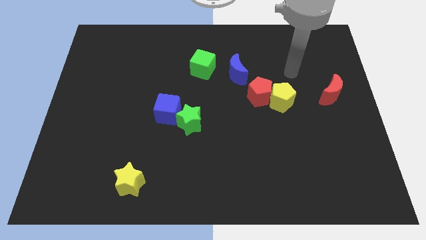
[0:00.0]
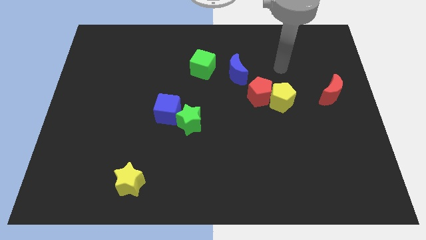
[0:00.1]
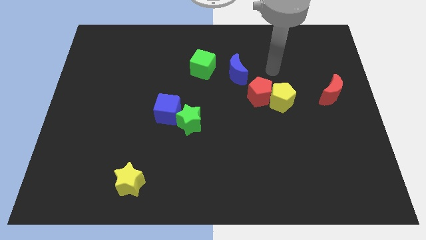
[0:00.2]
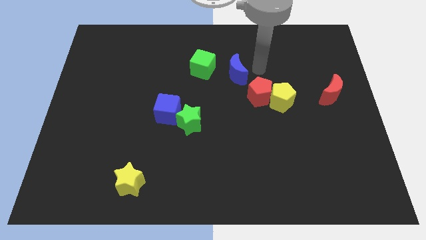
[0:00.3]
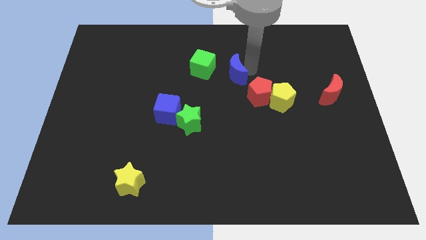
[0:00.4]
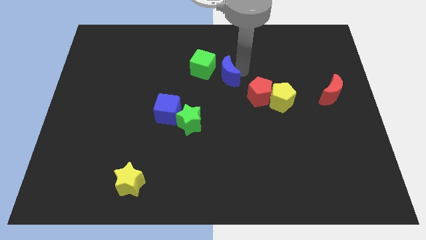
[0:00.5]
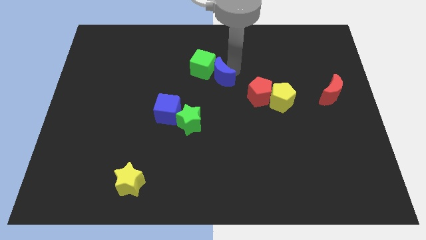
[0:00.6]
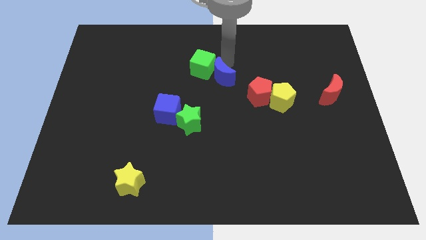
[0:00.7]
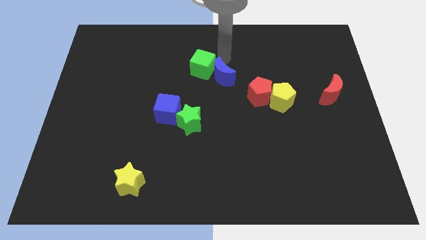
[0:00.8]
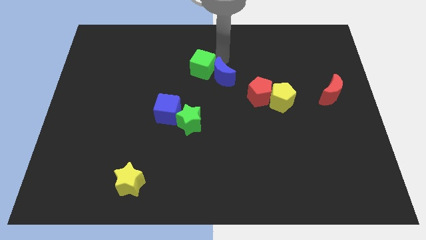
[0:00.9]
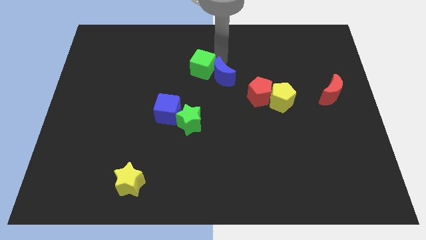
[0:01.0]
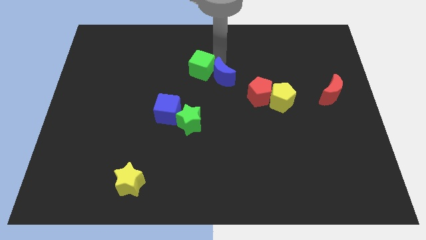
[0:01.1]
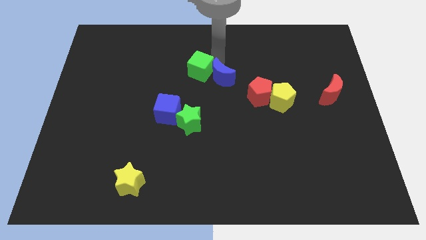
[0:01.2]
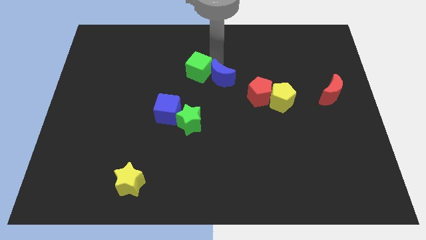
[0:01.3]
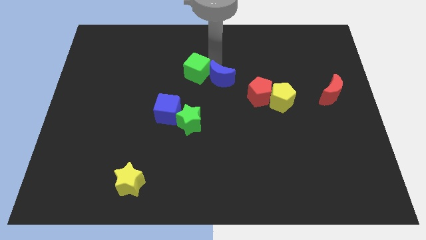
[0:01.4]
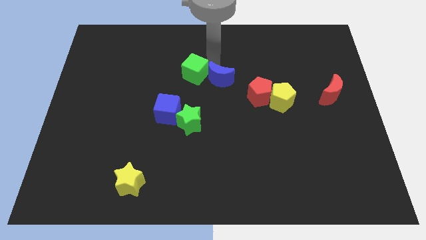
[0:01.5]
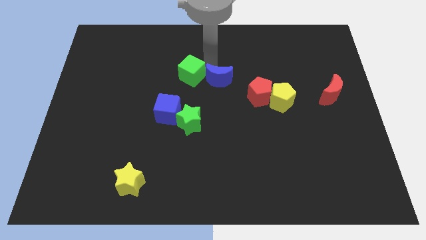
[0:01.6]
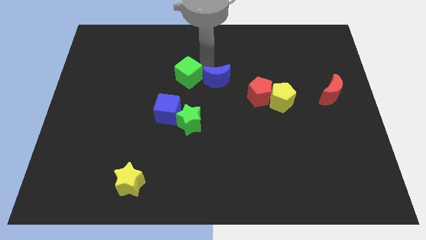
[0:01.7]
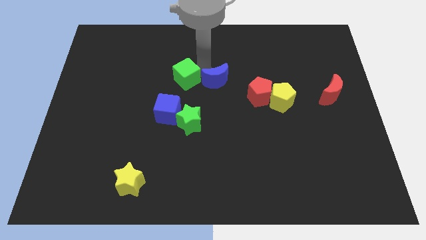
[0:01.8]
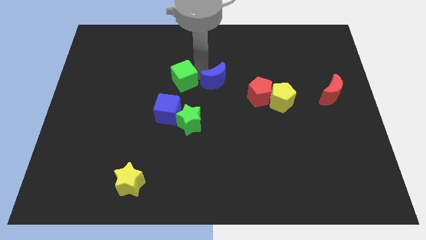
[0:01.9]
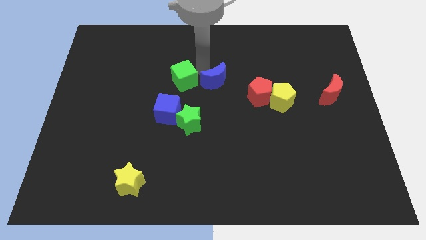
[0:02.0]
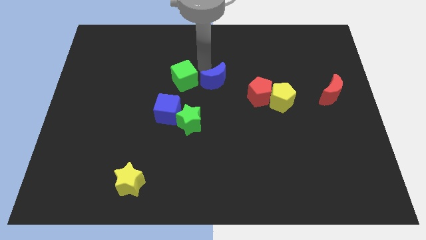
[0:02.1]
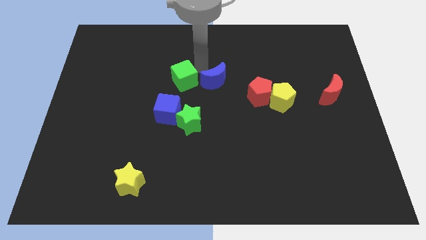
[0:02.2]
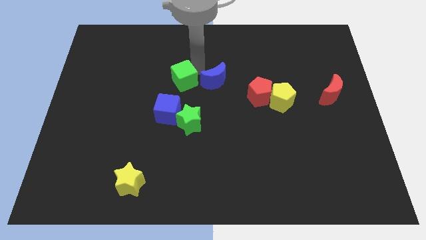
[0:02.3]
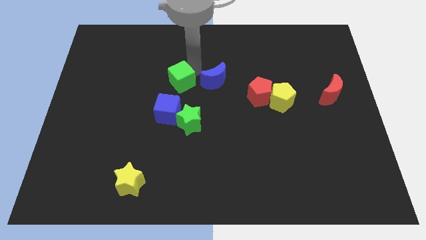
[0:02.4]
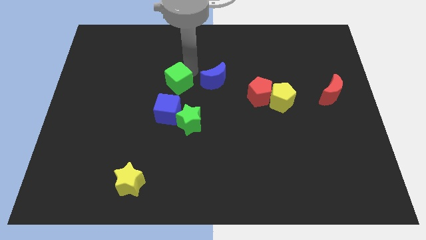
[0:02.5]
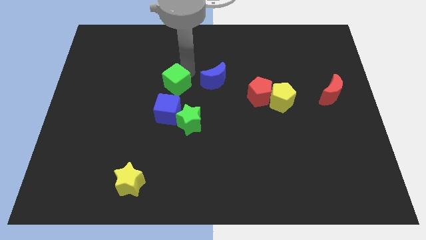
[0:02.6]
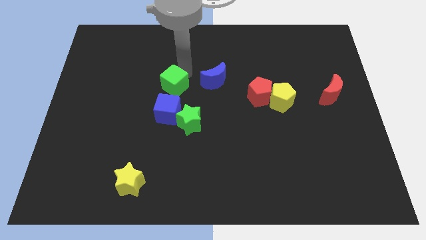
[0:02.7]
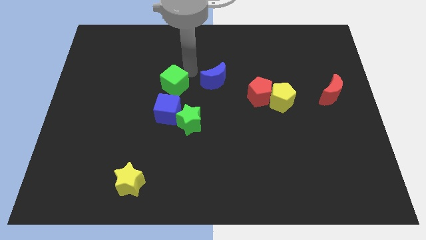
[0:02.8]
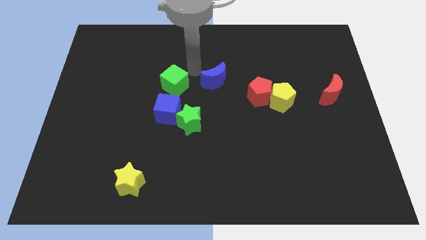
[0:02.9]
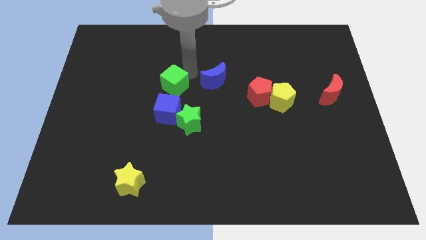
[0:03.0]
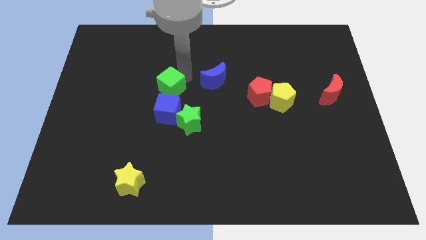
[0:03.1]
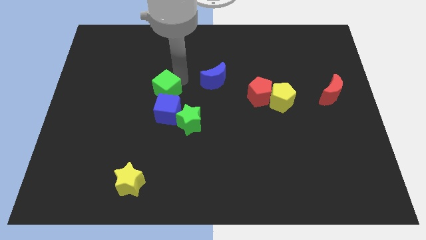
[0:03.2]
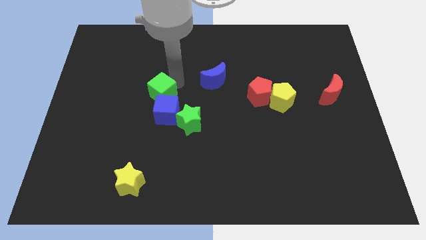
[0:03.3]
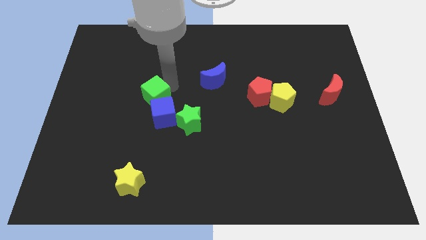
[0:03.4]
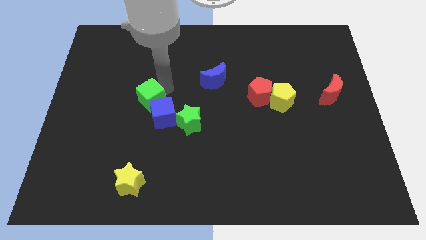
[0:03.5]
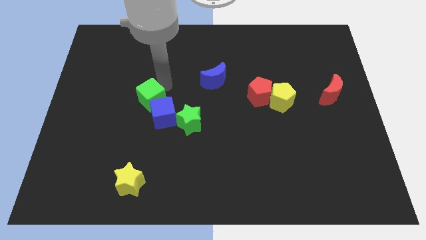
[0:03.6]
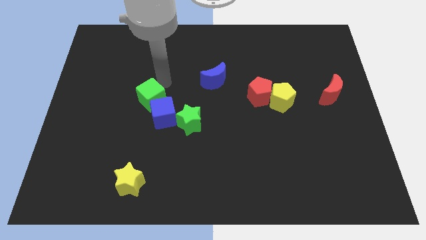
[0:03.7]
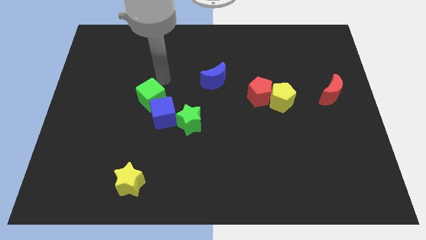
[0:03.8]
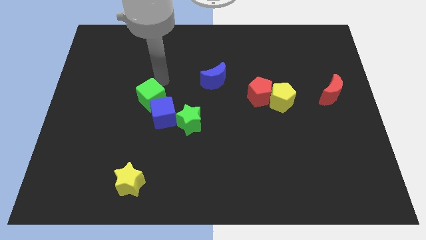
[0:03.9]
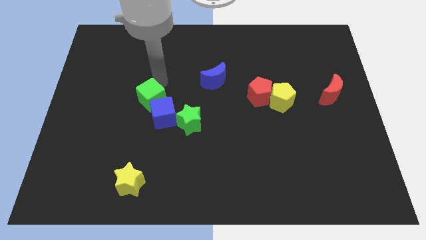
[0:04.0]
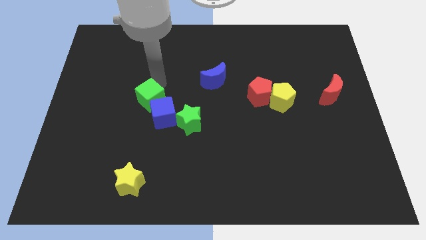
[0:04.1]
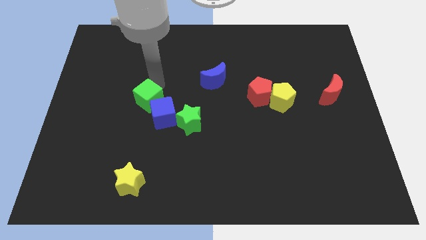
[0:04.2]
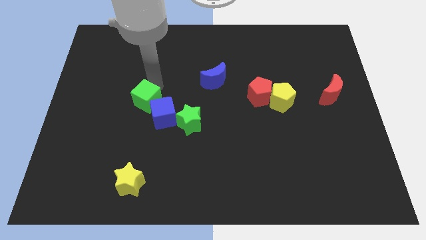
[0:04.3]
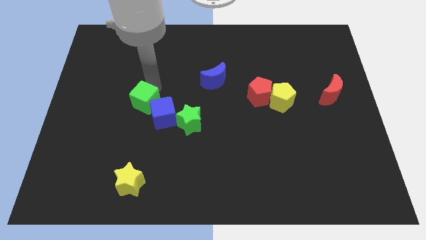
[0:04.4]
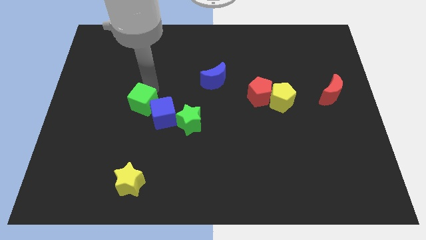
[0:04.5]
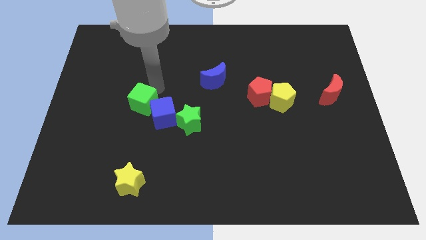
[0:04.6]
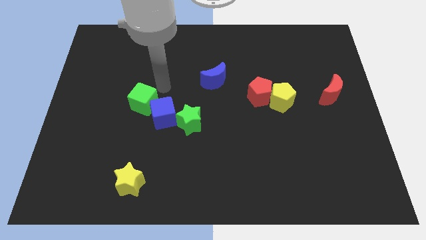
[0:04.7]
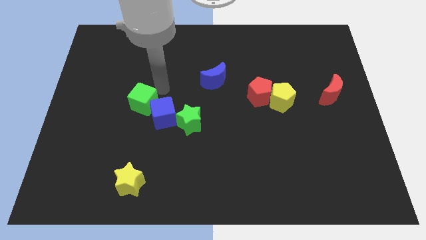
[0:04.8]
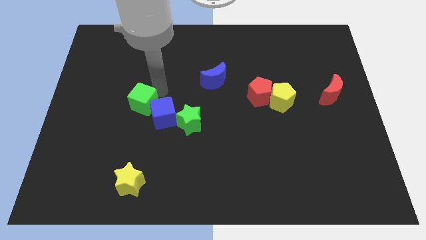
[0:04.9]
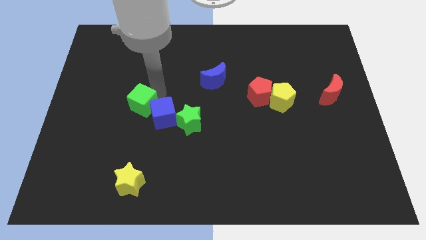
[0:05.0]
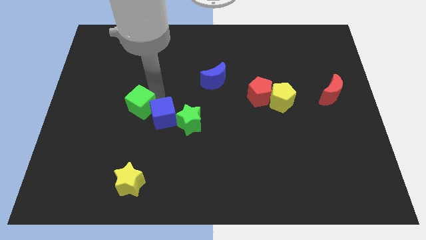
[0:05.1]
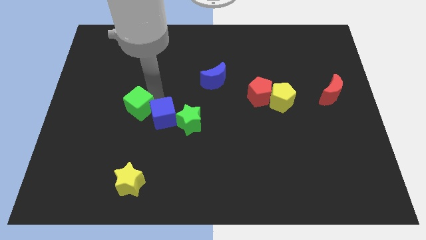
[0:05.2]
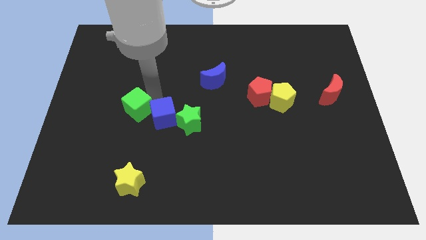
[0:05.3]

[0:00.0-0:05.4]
move the green cube down and left diagonally

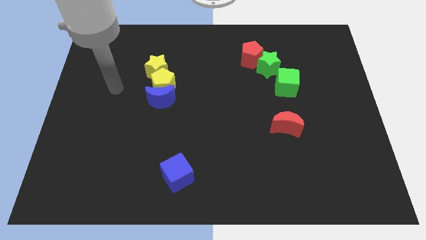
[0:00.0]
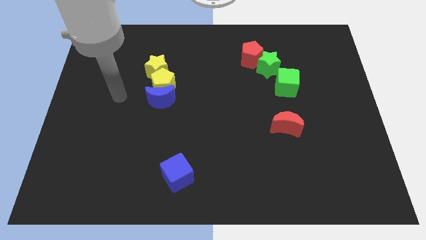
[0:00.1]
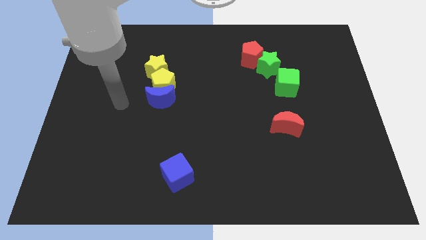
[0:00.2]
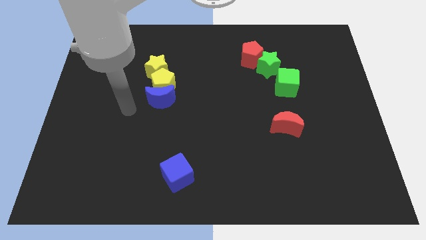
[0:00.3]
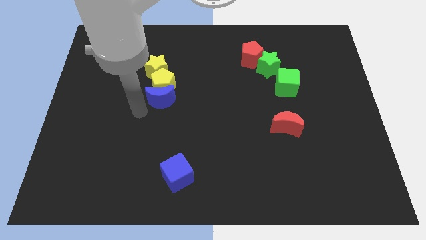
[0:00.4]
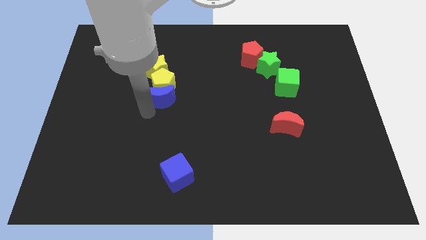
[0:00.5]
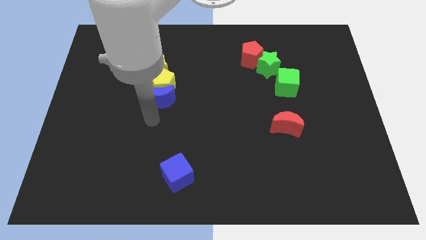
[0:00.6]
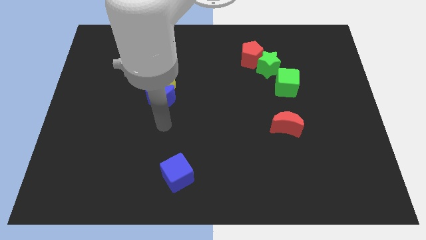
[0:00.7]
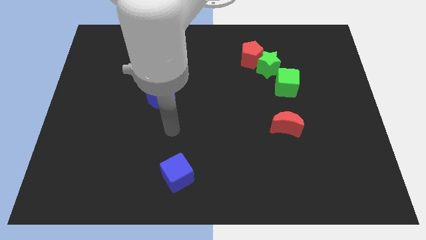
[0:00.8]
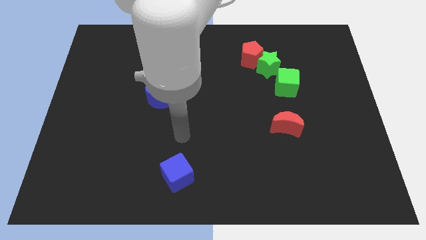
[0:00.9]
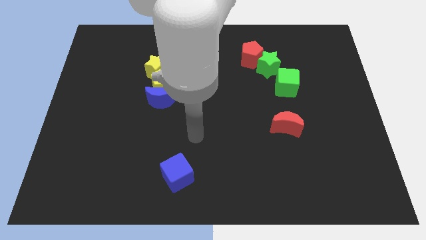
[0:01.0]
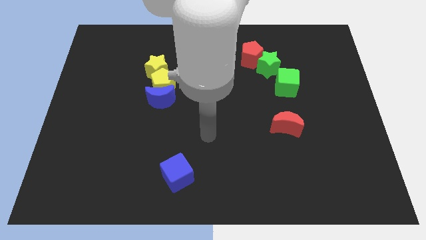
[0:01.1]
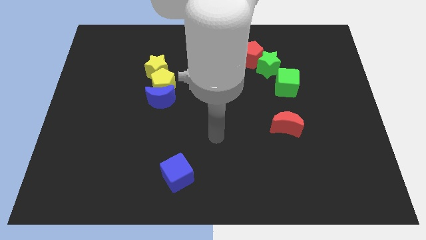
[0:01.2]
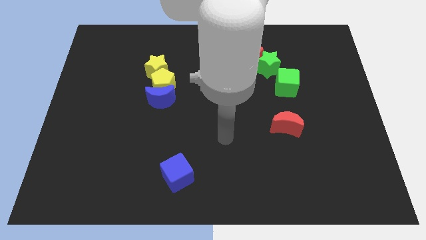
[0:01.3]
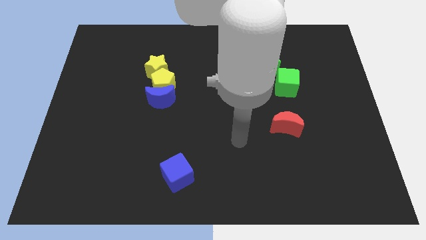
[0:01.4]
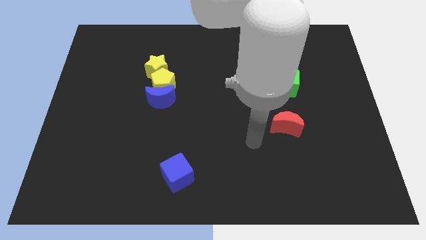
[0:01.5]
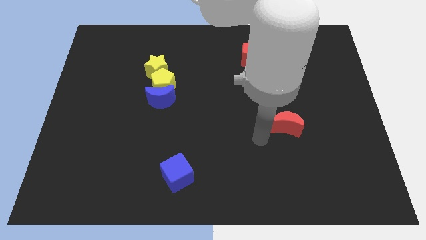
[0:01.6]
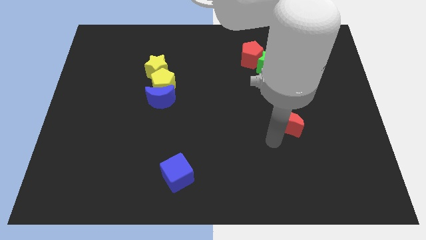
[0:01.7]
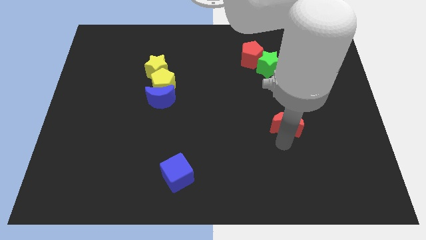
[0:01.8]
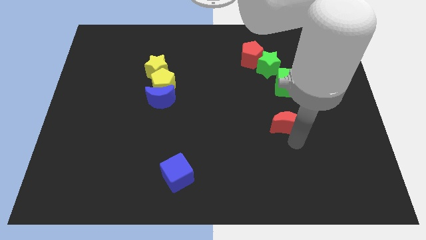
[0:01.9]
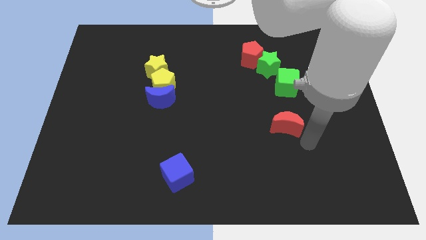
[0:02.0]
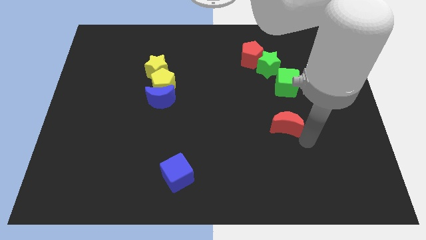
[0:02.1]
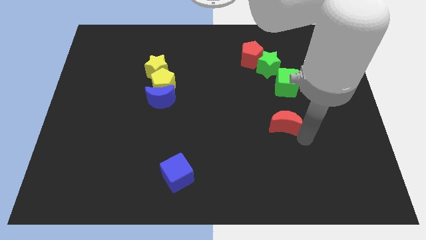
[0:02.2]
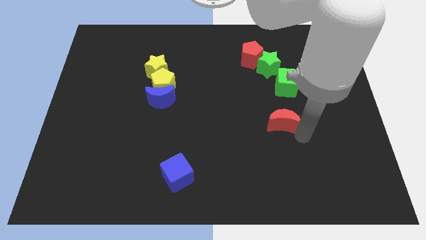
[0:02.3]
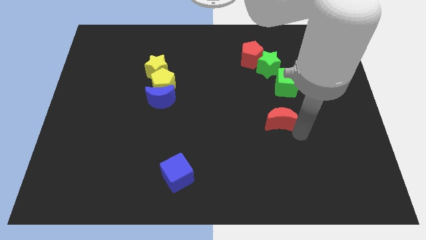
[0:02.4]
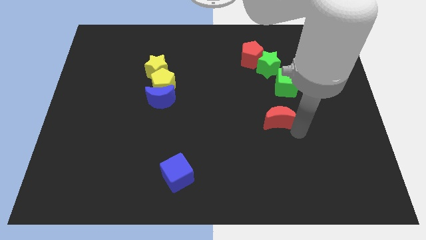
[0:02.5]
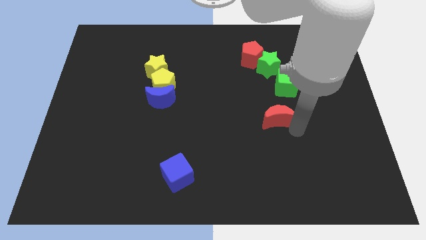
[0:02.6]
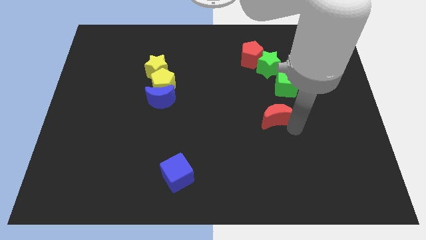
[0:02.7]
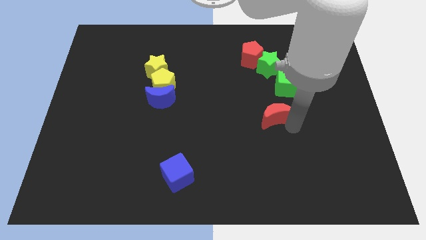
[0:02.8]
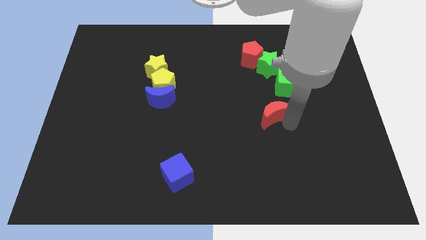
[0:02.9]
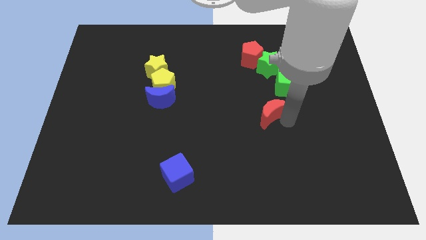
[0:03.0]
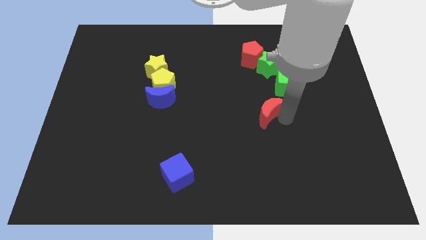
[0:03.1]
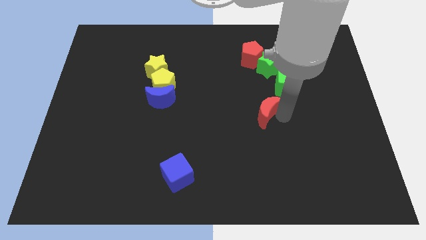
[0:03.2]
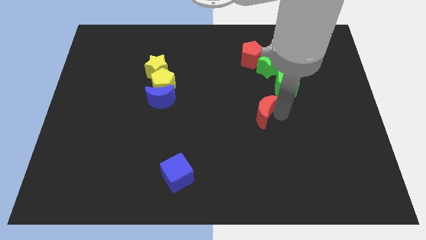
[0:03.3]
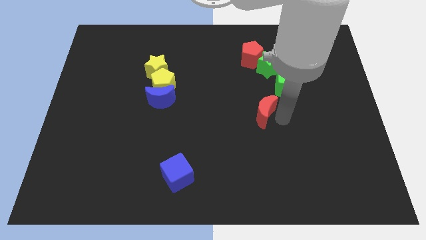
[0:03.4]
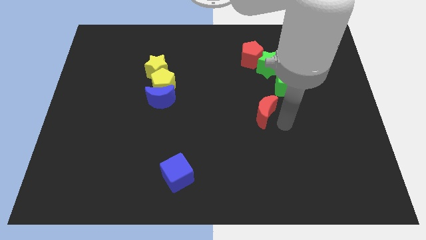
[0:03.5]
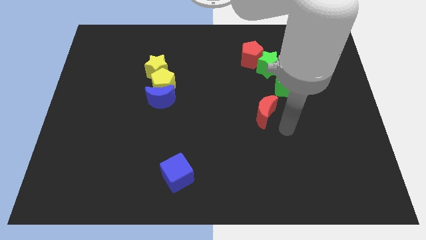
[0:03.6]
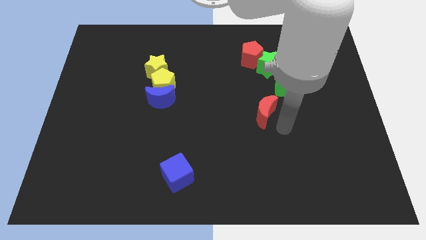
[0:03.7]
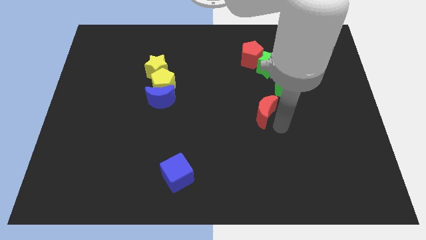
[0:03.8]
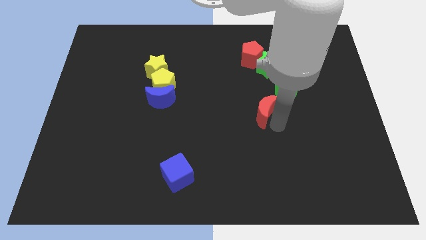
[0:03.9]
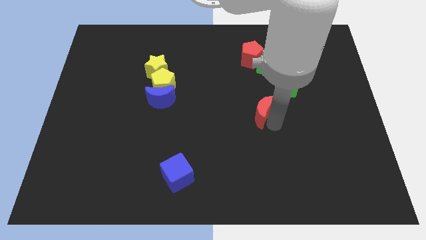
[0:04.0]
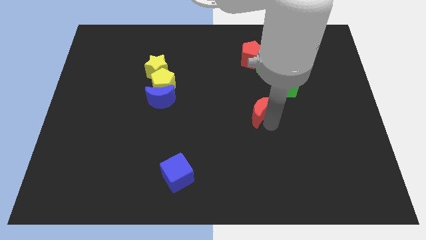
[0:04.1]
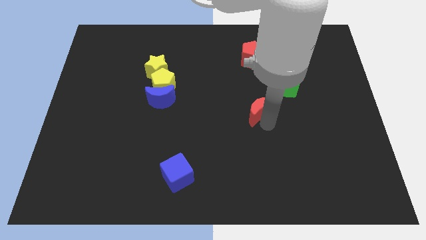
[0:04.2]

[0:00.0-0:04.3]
slightly move the red moon upwards and to the left
